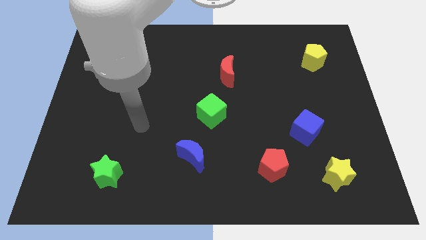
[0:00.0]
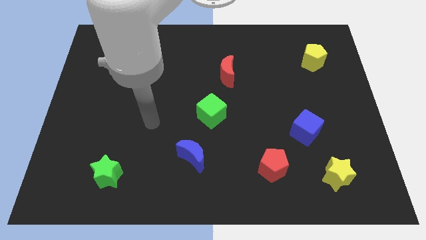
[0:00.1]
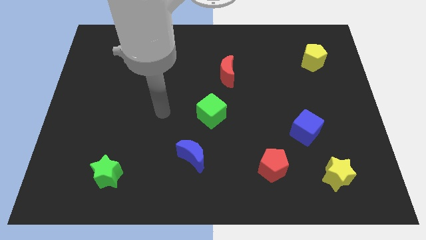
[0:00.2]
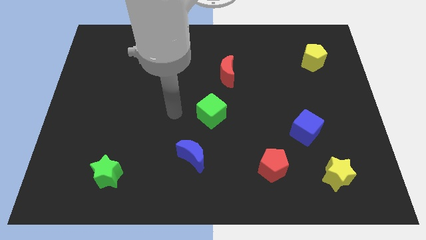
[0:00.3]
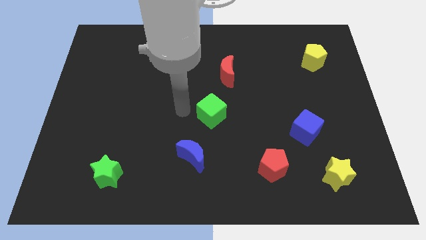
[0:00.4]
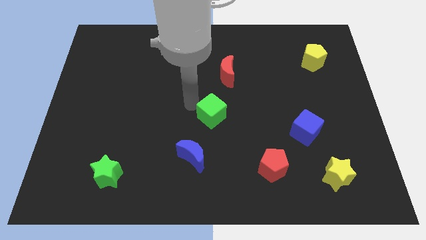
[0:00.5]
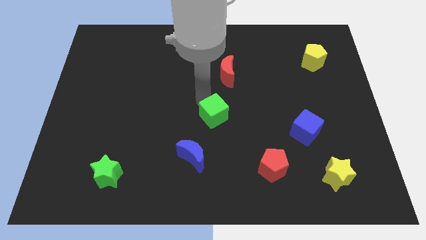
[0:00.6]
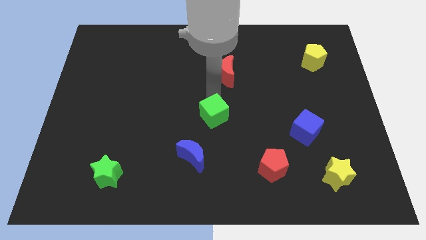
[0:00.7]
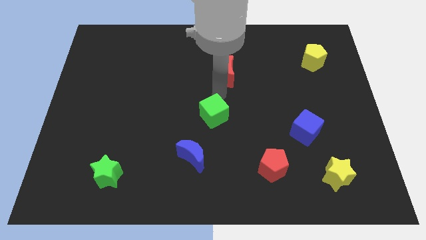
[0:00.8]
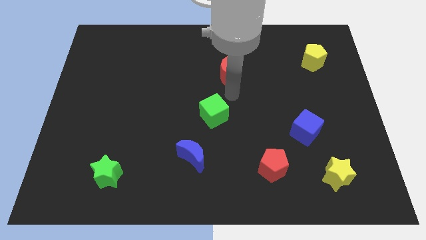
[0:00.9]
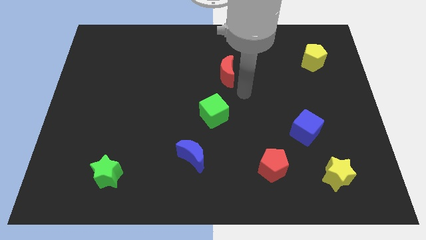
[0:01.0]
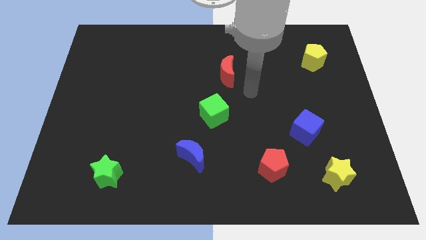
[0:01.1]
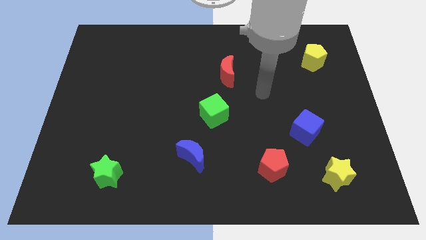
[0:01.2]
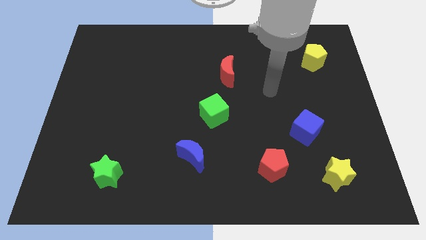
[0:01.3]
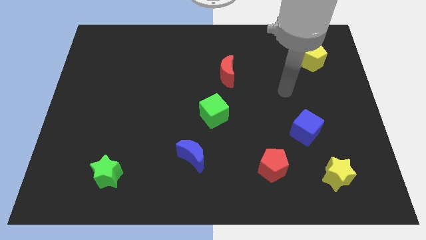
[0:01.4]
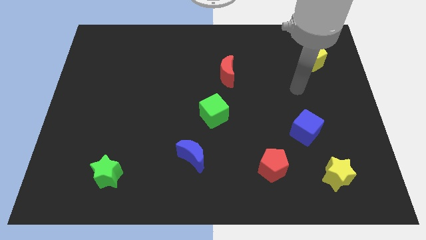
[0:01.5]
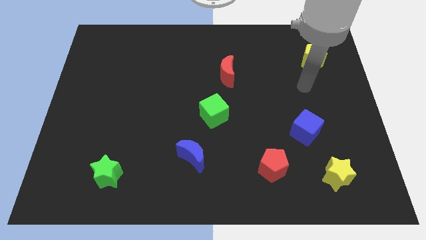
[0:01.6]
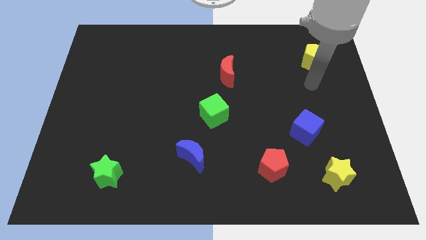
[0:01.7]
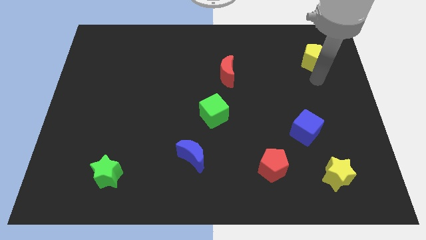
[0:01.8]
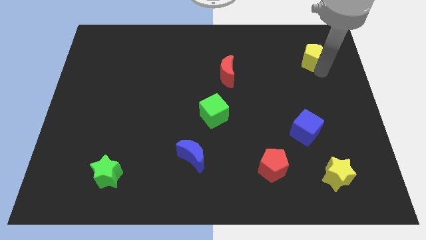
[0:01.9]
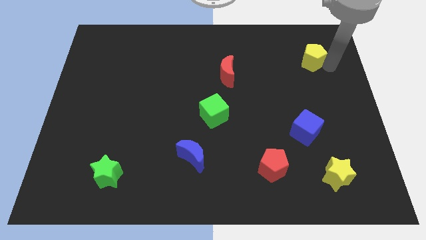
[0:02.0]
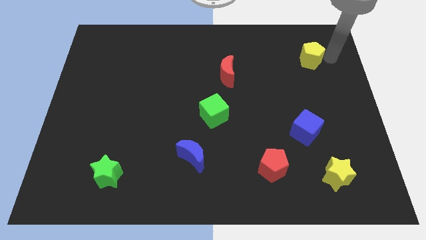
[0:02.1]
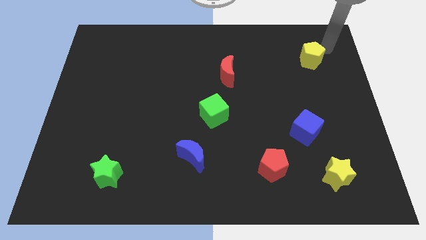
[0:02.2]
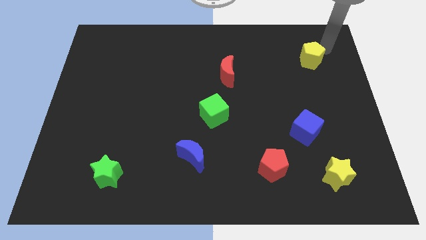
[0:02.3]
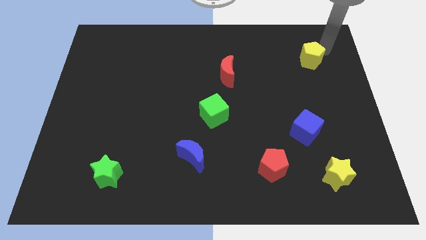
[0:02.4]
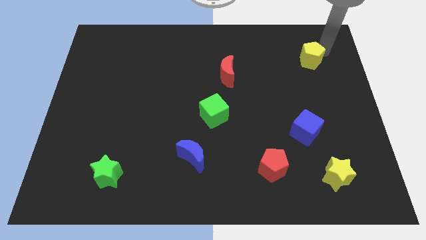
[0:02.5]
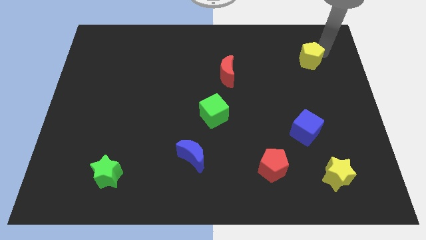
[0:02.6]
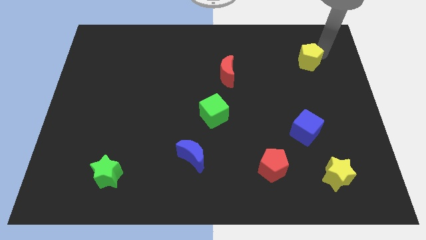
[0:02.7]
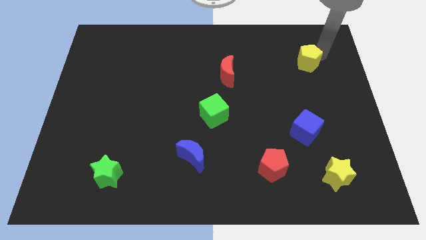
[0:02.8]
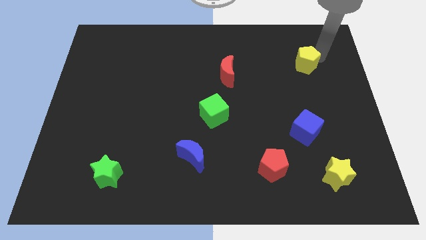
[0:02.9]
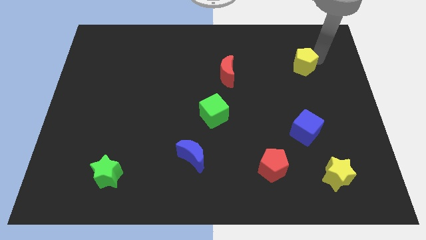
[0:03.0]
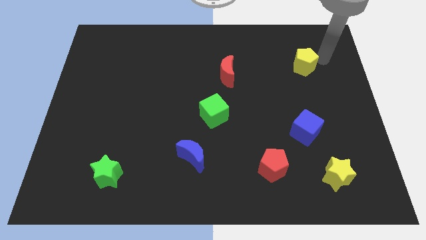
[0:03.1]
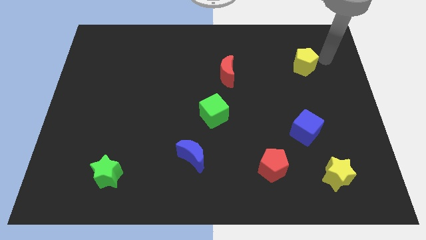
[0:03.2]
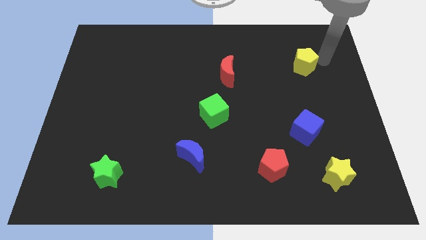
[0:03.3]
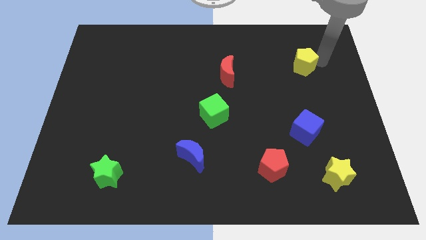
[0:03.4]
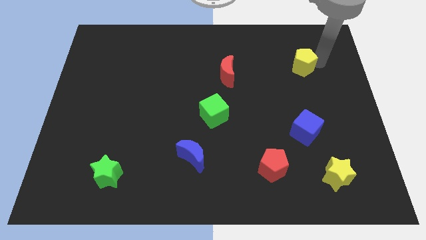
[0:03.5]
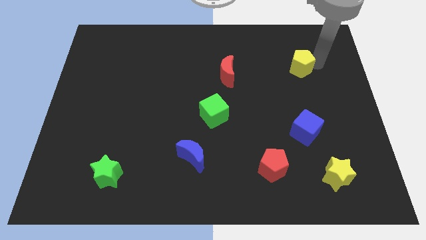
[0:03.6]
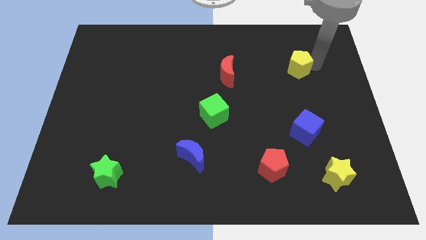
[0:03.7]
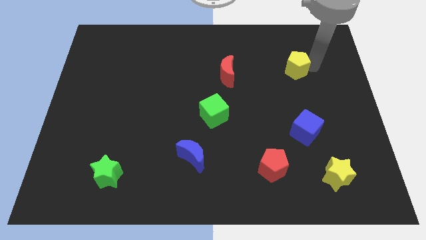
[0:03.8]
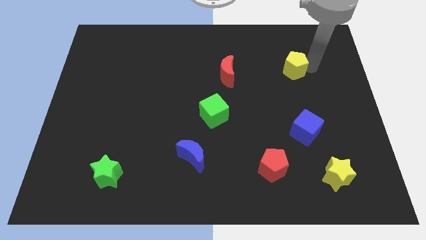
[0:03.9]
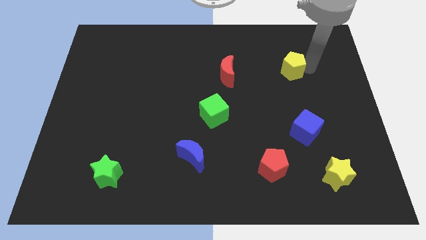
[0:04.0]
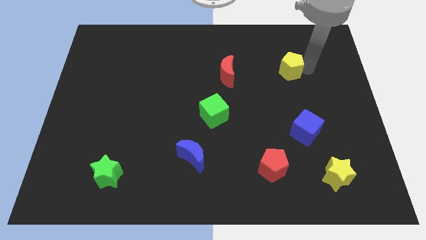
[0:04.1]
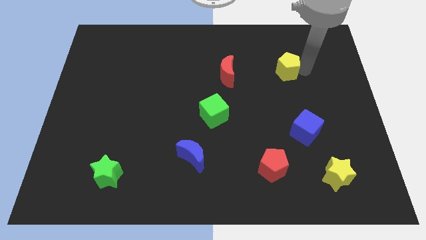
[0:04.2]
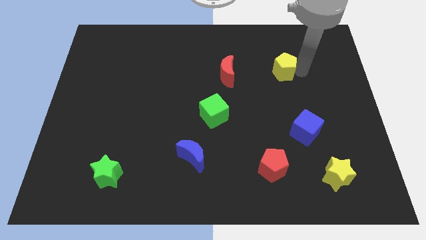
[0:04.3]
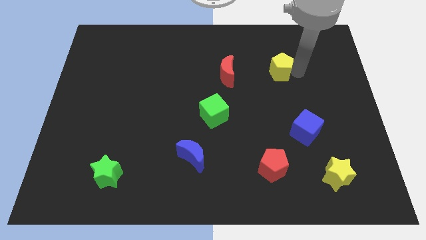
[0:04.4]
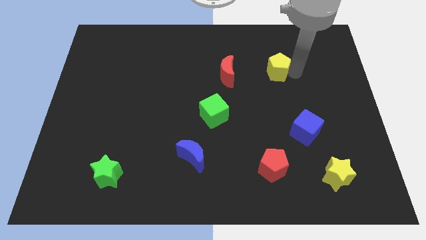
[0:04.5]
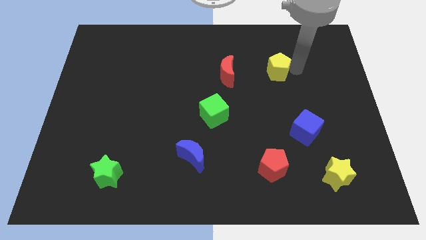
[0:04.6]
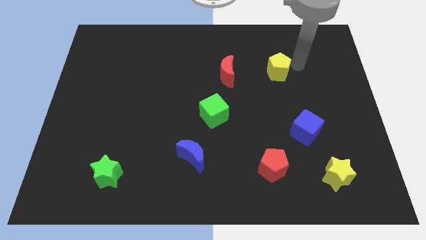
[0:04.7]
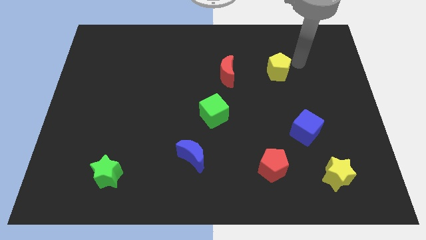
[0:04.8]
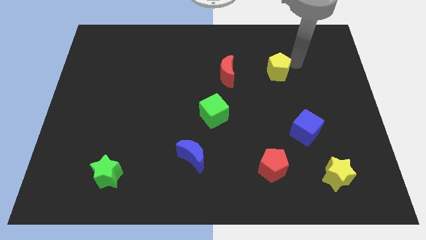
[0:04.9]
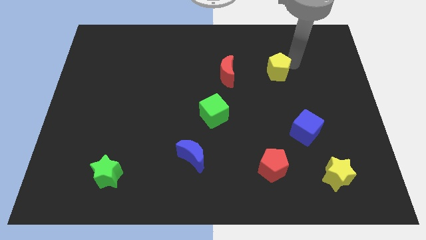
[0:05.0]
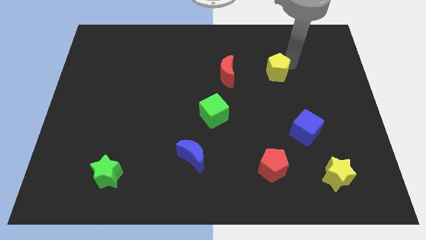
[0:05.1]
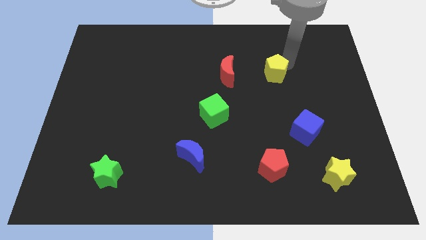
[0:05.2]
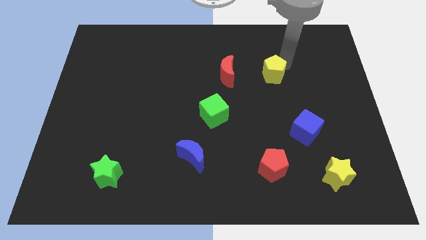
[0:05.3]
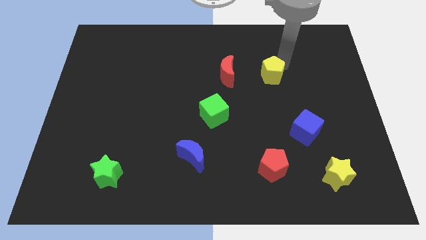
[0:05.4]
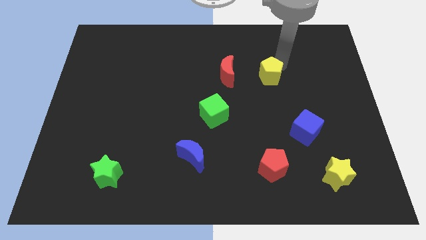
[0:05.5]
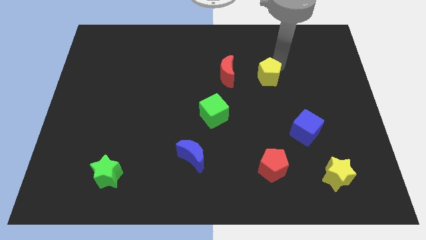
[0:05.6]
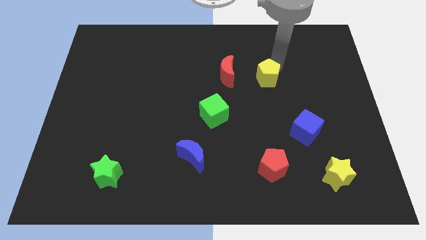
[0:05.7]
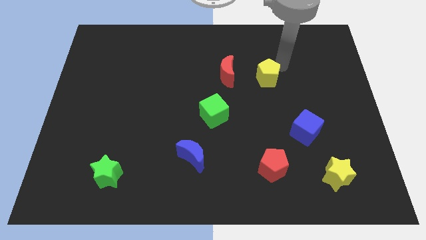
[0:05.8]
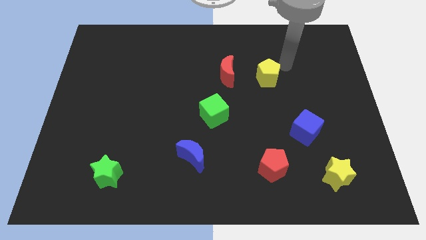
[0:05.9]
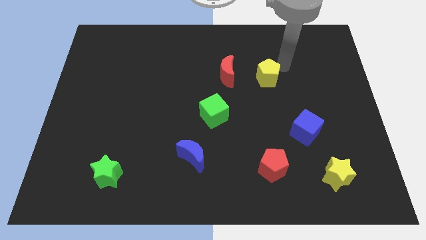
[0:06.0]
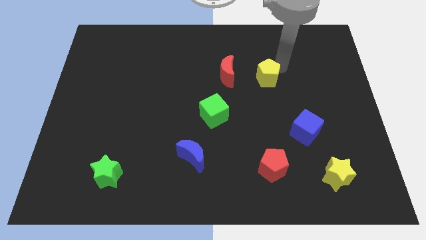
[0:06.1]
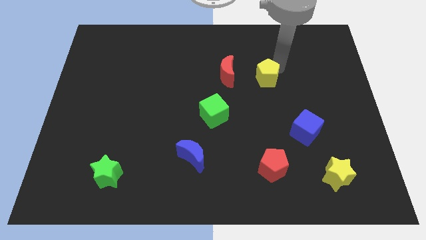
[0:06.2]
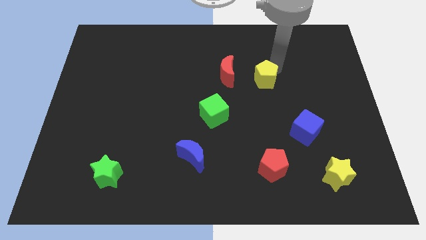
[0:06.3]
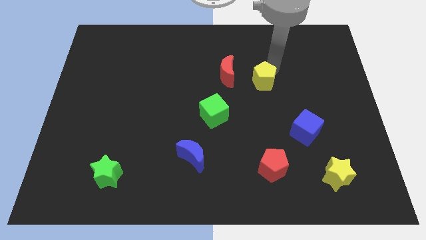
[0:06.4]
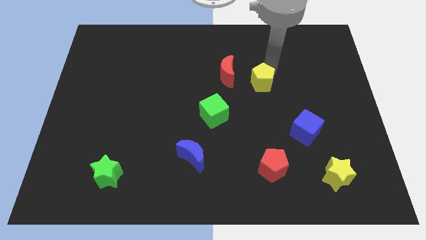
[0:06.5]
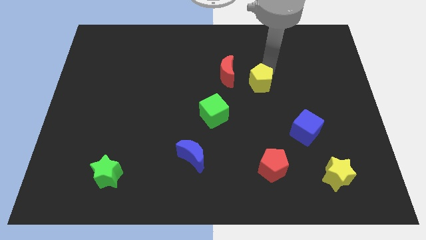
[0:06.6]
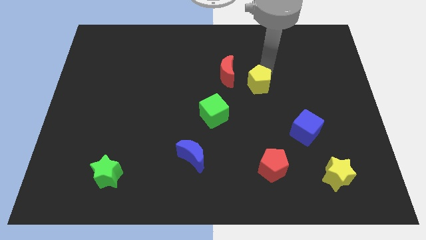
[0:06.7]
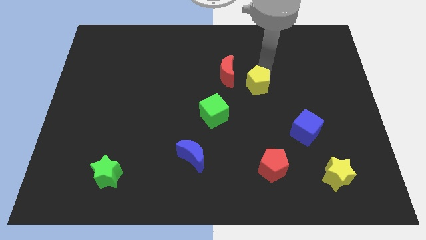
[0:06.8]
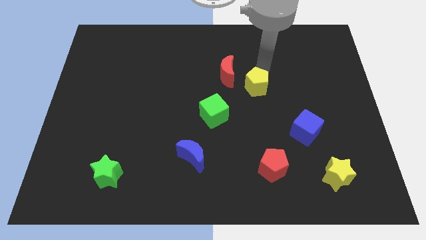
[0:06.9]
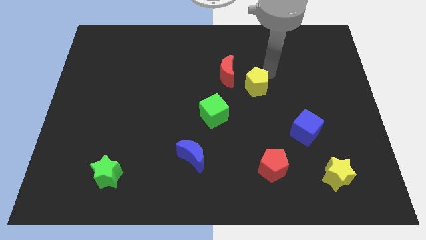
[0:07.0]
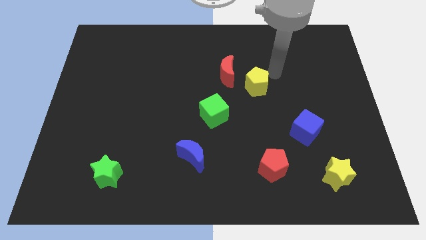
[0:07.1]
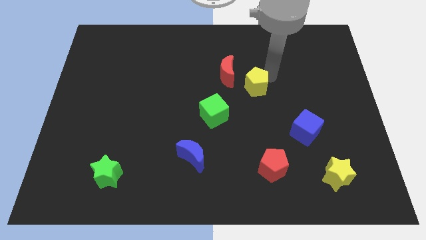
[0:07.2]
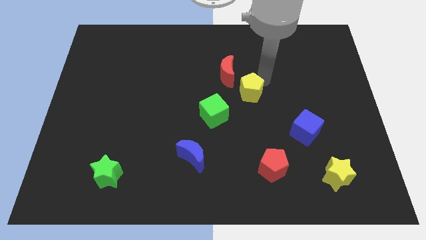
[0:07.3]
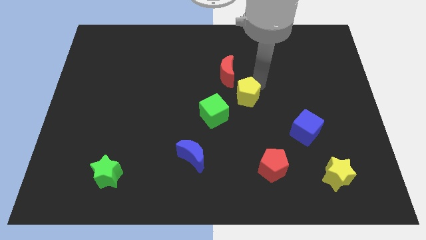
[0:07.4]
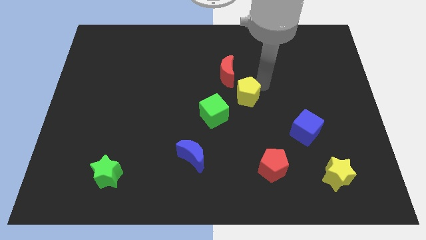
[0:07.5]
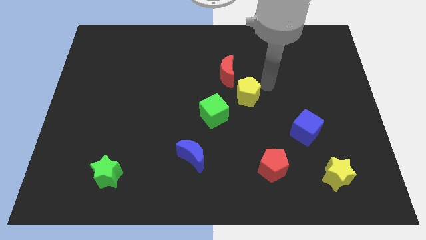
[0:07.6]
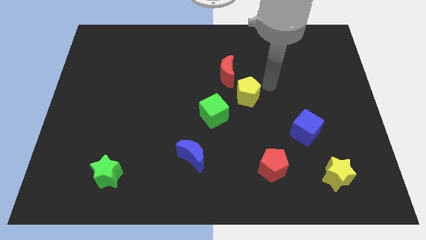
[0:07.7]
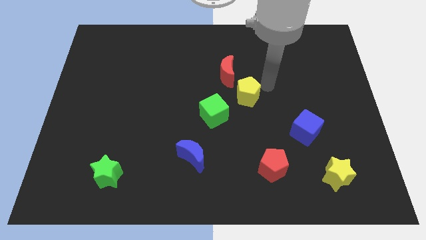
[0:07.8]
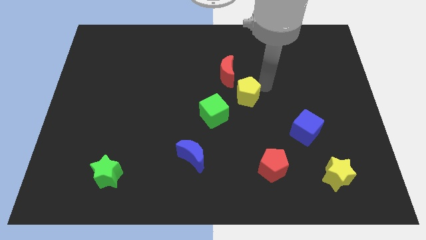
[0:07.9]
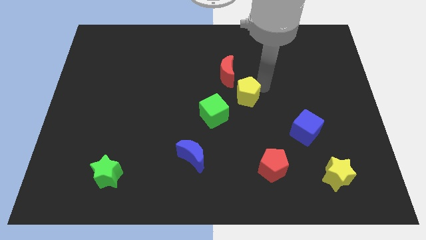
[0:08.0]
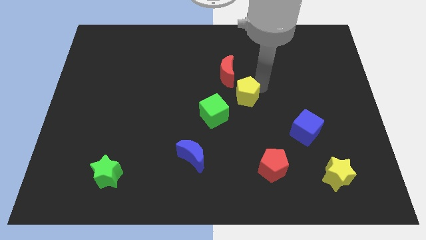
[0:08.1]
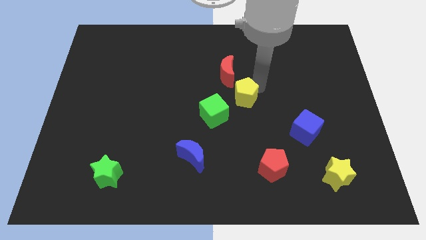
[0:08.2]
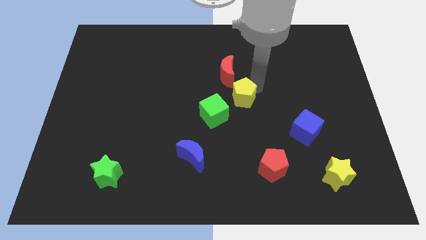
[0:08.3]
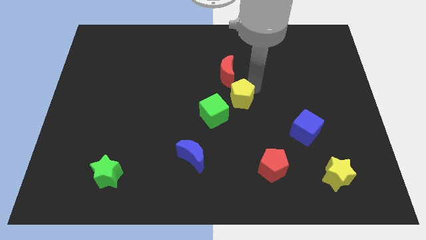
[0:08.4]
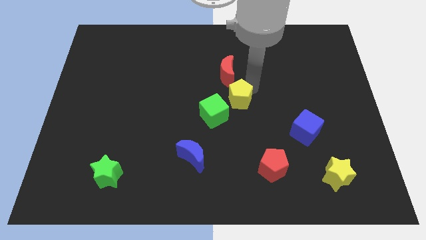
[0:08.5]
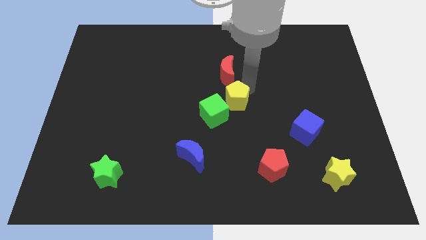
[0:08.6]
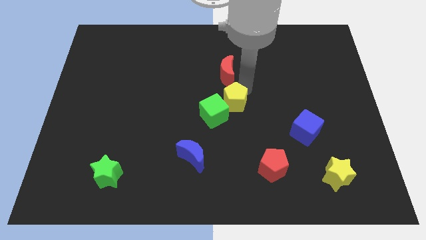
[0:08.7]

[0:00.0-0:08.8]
put the yellow pentagon towards the green cube
